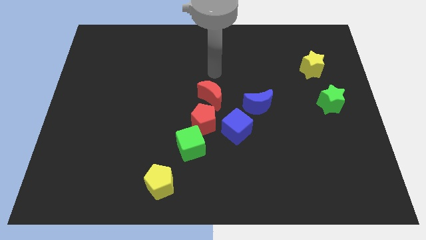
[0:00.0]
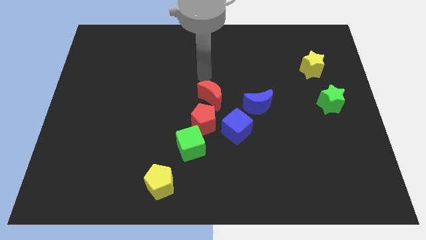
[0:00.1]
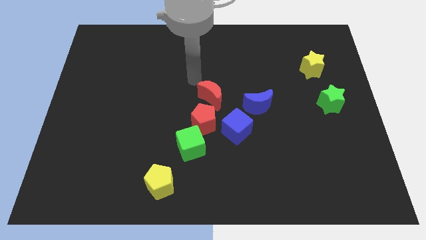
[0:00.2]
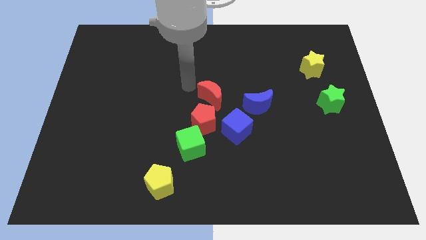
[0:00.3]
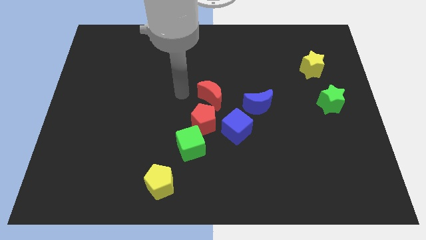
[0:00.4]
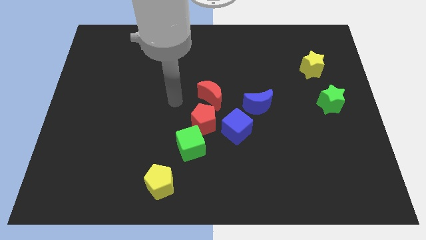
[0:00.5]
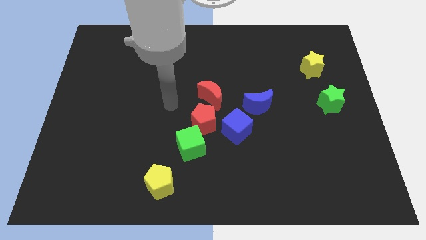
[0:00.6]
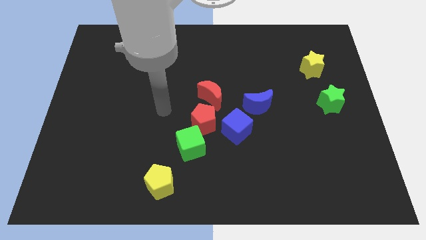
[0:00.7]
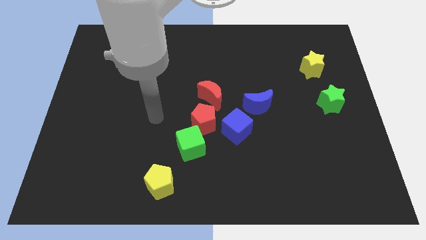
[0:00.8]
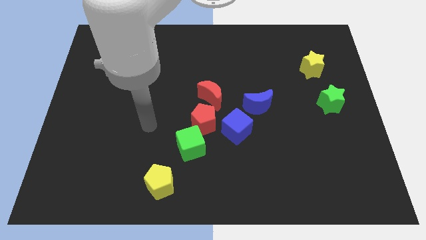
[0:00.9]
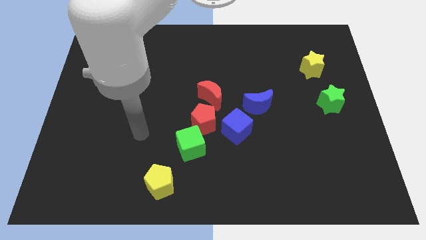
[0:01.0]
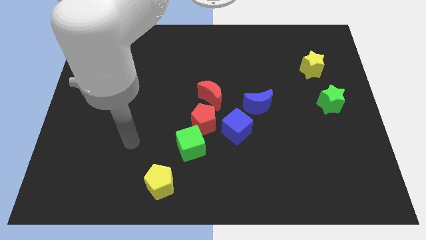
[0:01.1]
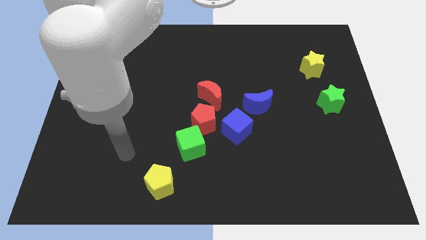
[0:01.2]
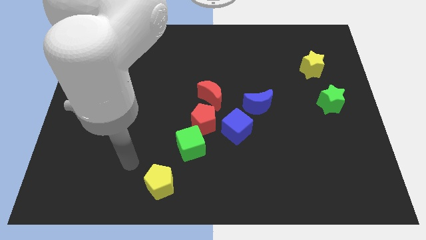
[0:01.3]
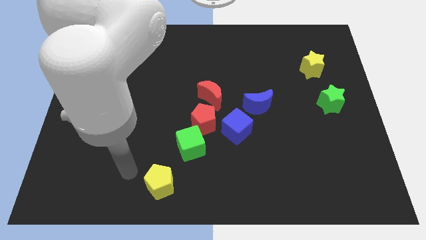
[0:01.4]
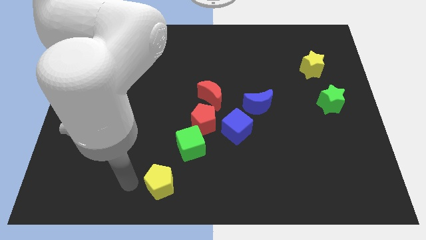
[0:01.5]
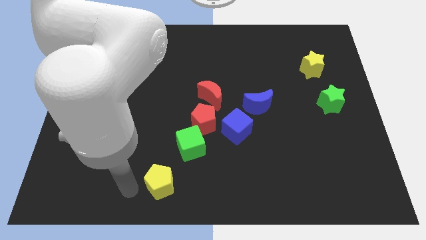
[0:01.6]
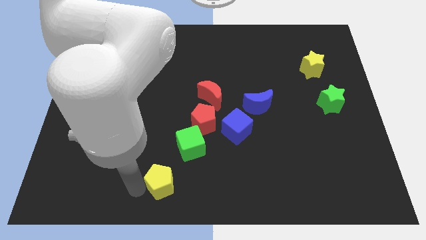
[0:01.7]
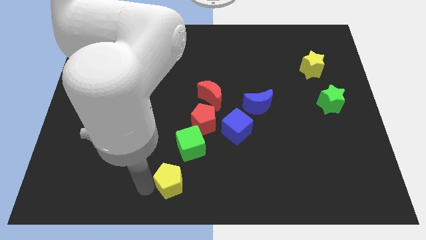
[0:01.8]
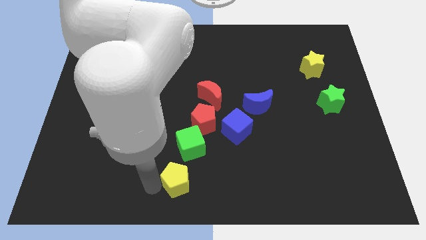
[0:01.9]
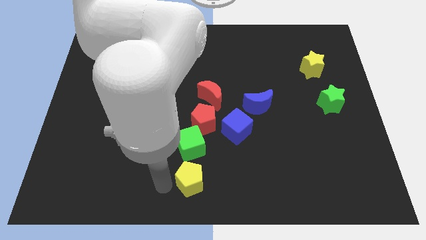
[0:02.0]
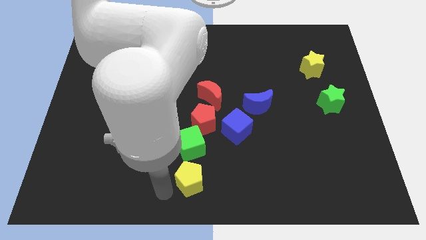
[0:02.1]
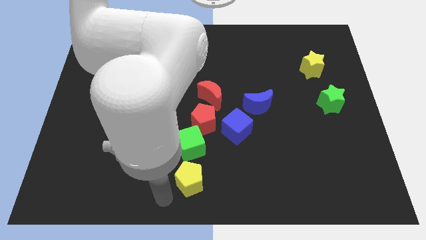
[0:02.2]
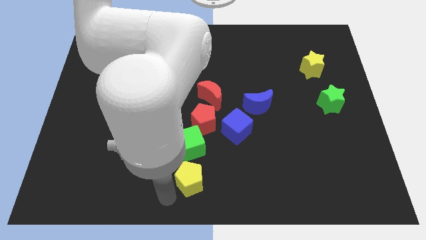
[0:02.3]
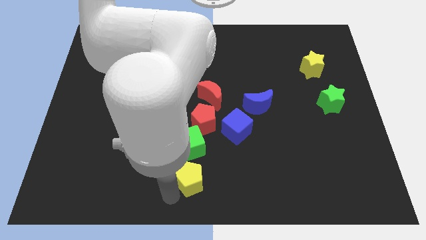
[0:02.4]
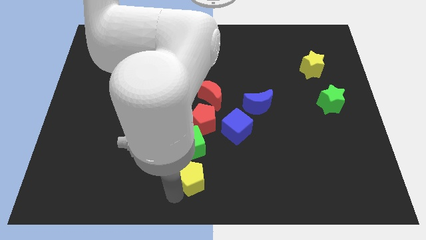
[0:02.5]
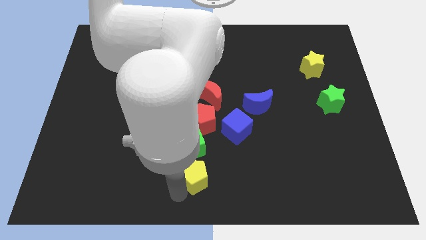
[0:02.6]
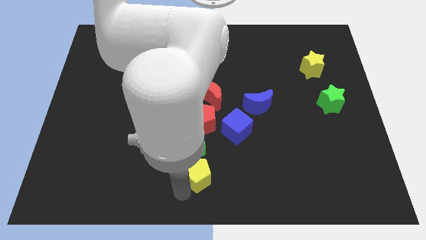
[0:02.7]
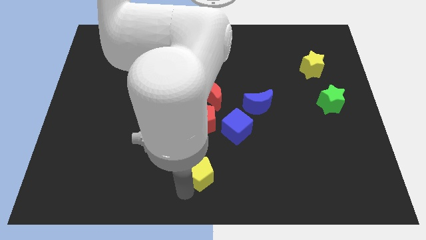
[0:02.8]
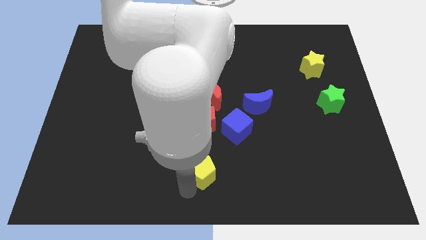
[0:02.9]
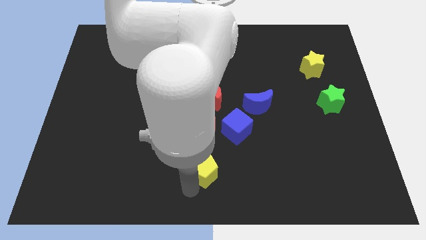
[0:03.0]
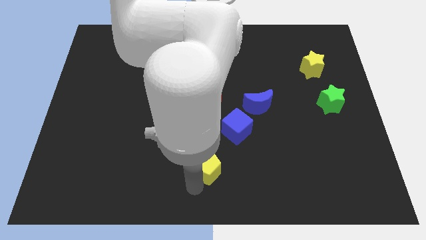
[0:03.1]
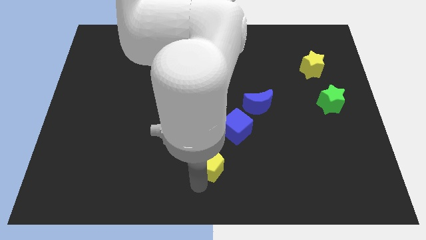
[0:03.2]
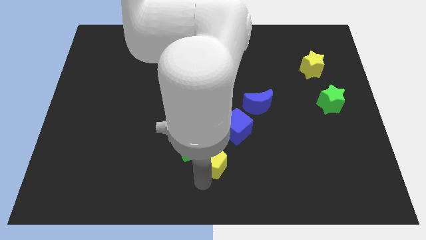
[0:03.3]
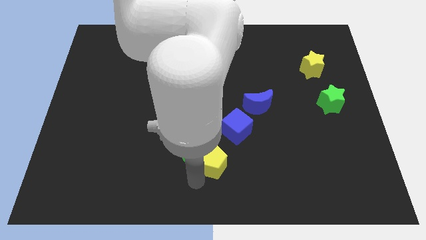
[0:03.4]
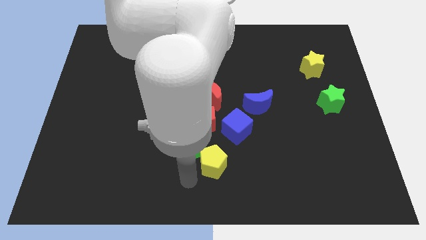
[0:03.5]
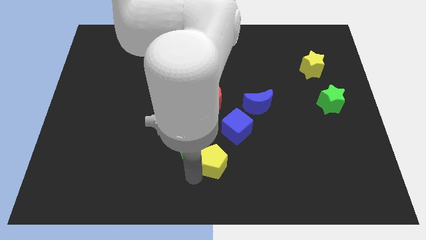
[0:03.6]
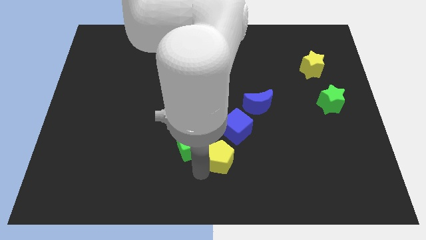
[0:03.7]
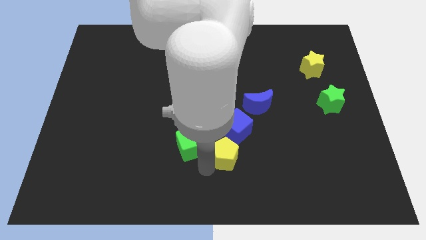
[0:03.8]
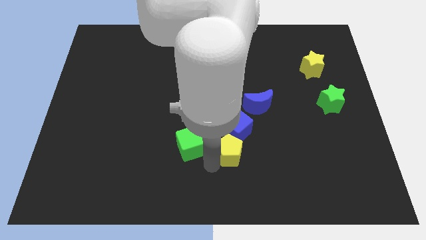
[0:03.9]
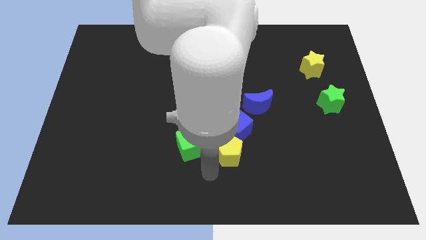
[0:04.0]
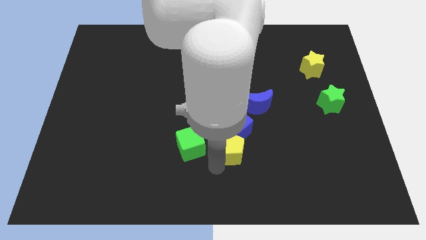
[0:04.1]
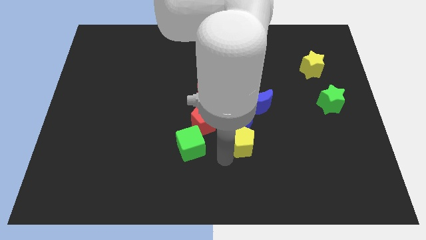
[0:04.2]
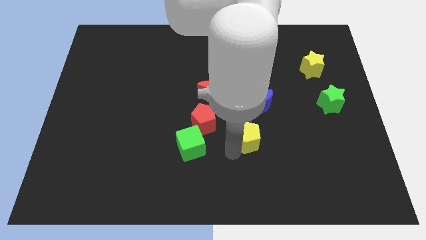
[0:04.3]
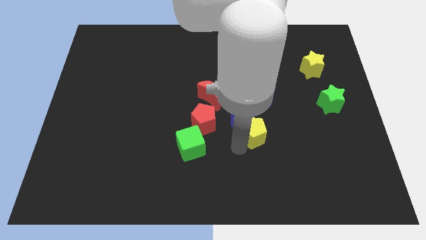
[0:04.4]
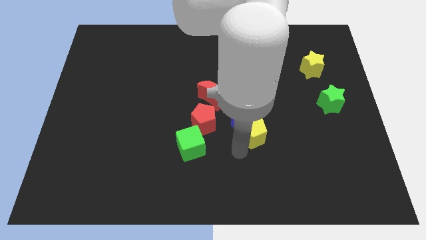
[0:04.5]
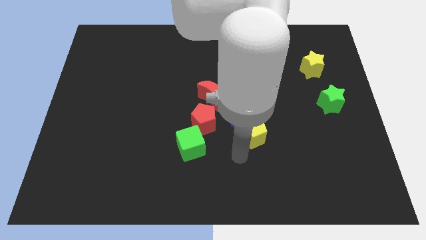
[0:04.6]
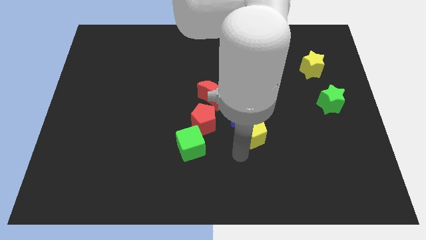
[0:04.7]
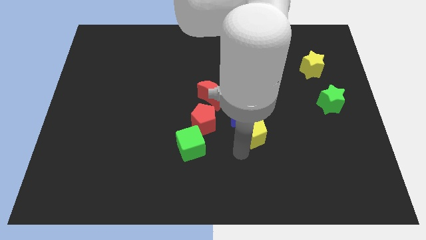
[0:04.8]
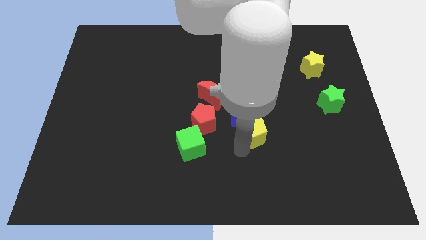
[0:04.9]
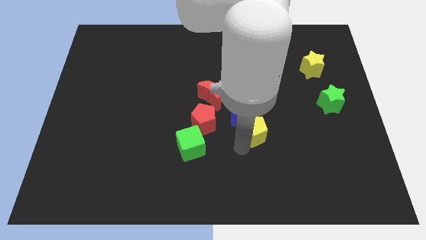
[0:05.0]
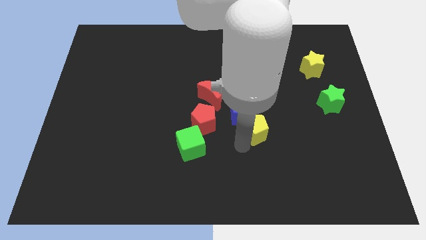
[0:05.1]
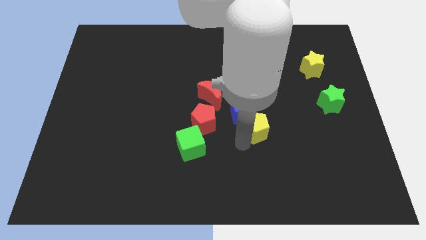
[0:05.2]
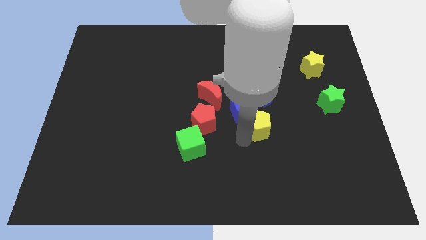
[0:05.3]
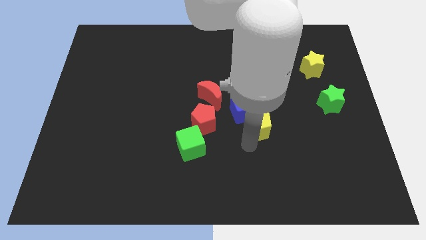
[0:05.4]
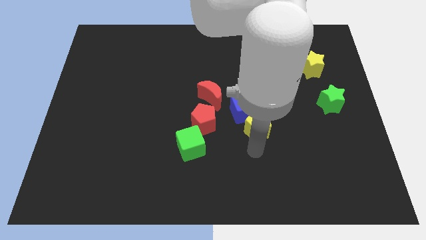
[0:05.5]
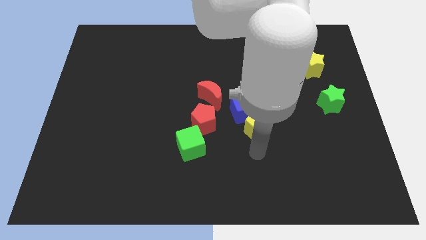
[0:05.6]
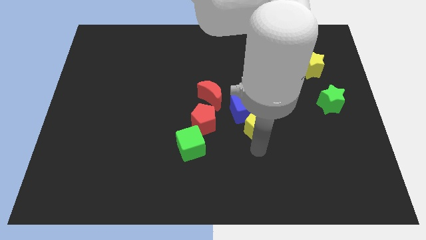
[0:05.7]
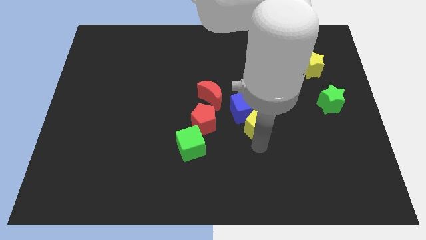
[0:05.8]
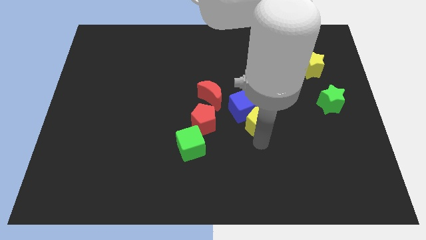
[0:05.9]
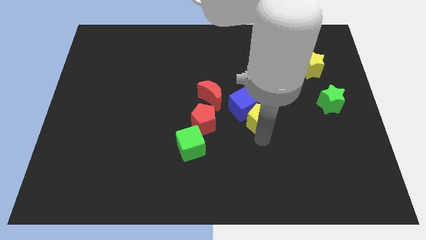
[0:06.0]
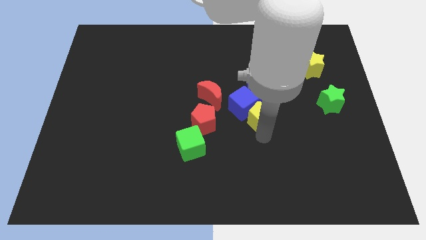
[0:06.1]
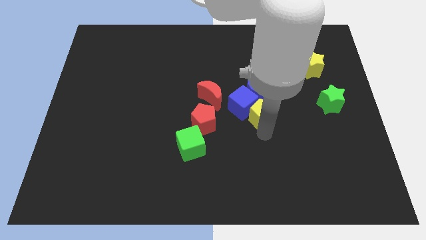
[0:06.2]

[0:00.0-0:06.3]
slide the yellow pentagon close to the blue moon

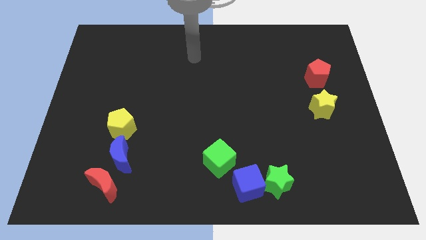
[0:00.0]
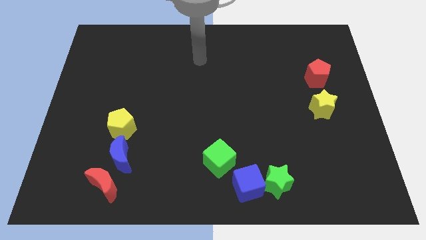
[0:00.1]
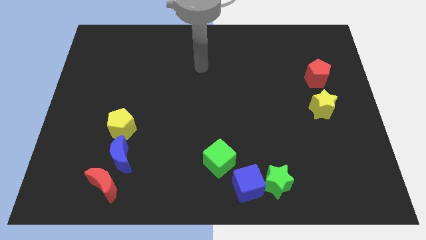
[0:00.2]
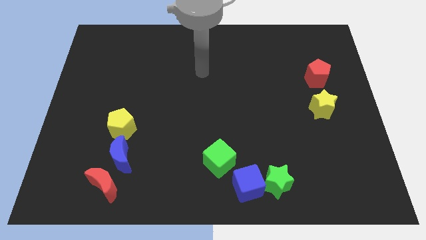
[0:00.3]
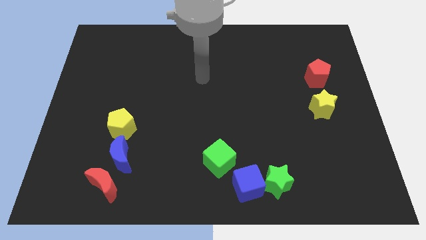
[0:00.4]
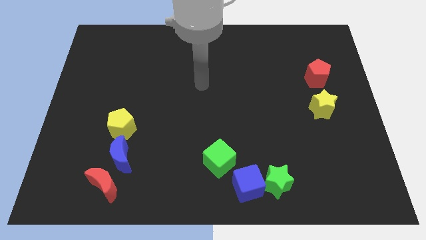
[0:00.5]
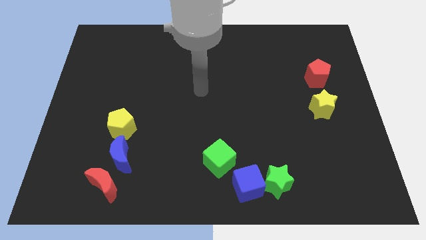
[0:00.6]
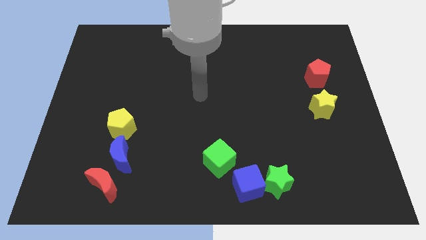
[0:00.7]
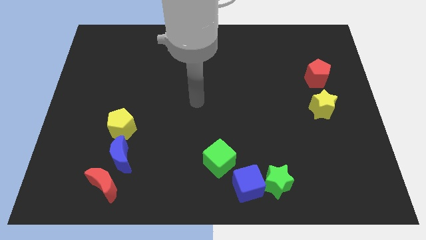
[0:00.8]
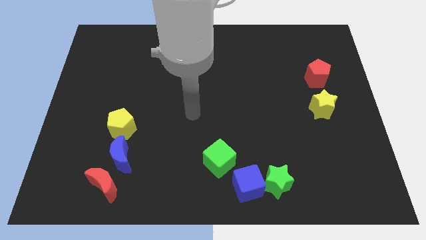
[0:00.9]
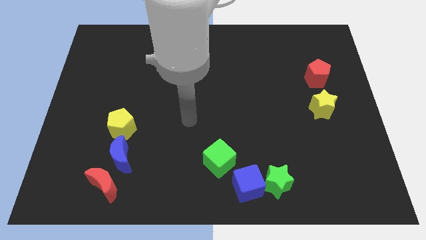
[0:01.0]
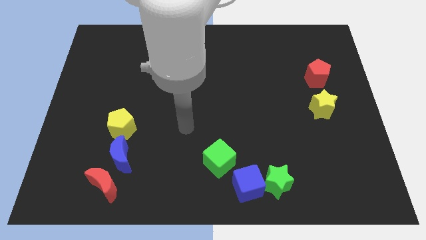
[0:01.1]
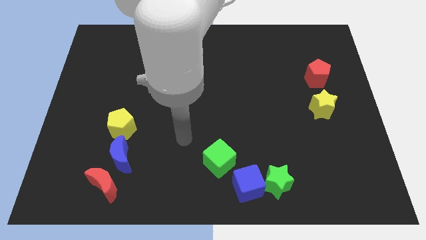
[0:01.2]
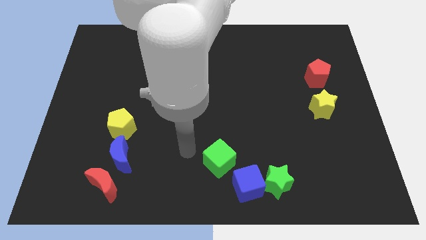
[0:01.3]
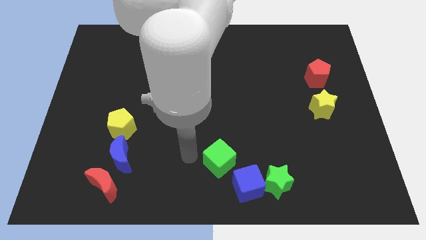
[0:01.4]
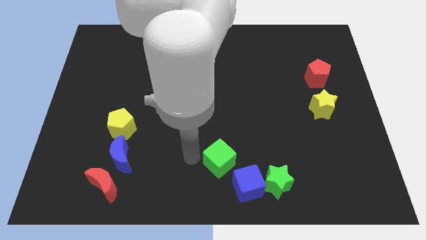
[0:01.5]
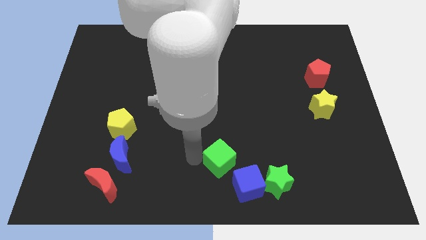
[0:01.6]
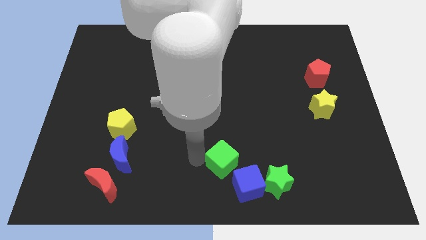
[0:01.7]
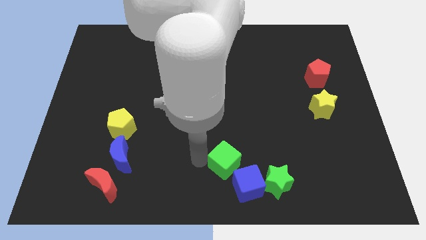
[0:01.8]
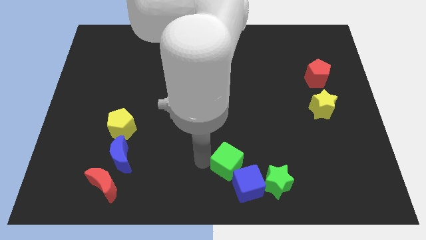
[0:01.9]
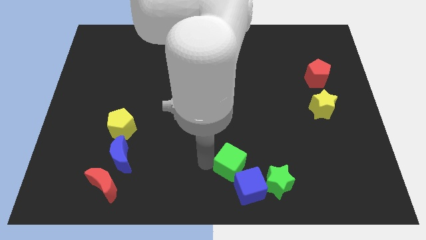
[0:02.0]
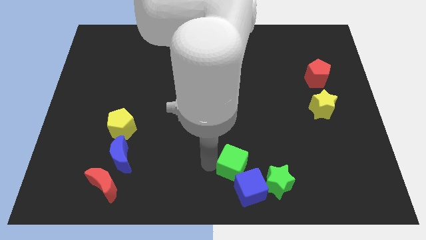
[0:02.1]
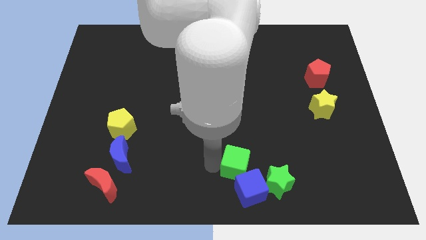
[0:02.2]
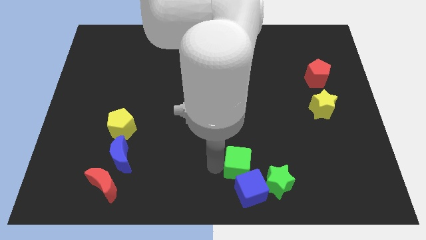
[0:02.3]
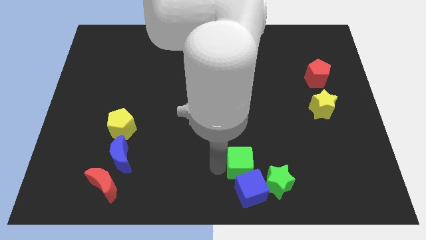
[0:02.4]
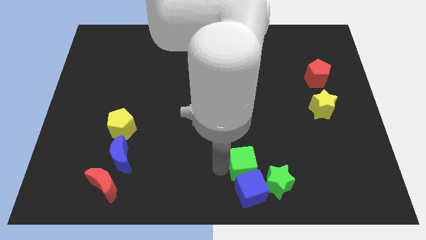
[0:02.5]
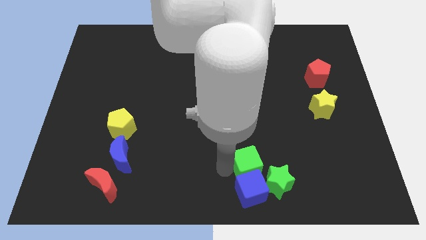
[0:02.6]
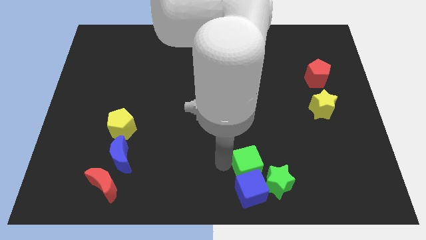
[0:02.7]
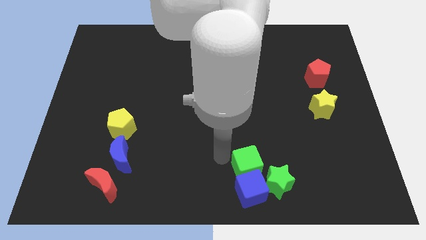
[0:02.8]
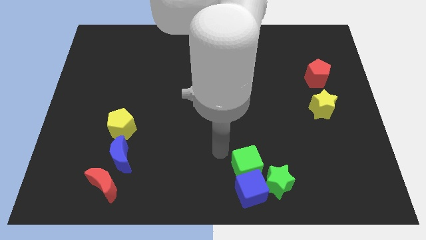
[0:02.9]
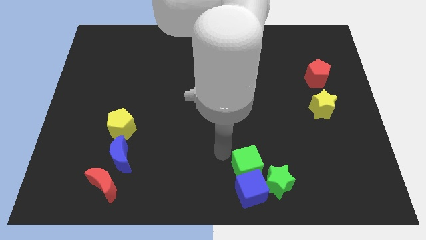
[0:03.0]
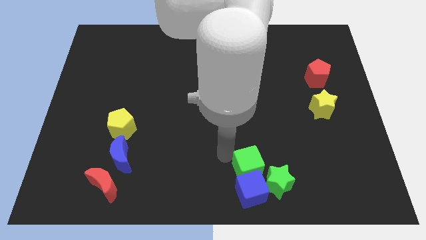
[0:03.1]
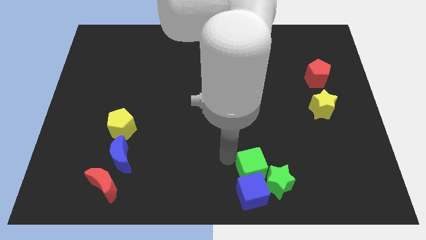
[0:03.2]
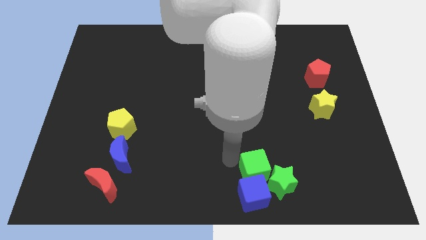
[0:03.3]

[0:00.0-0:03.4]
move the green cube next to the green star
